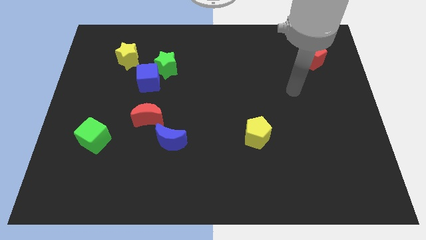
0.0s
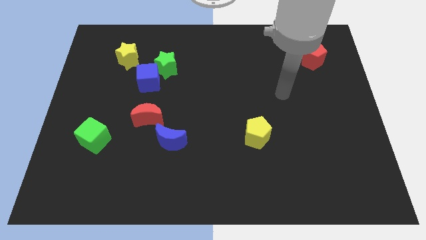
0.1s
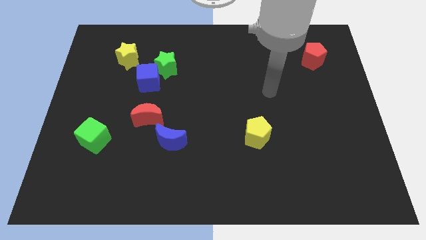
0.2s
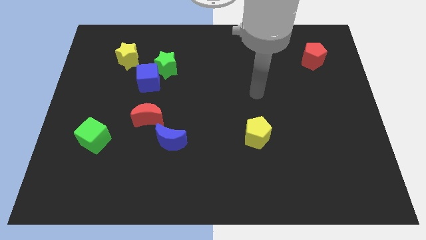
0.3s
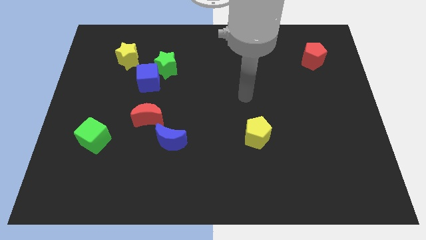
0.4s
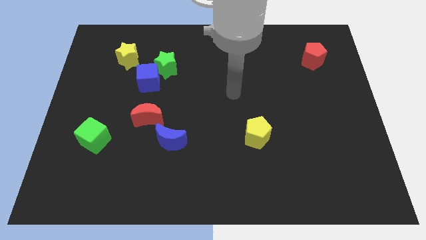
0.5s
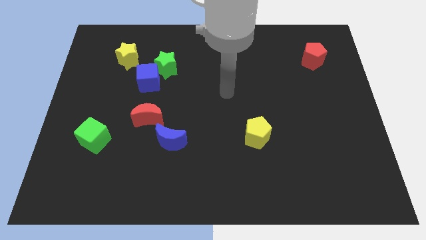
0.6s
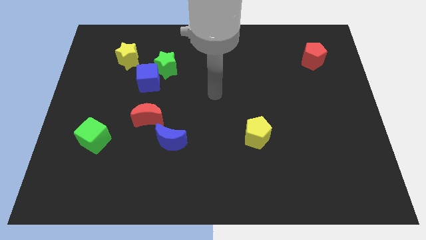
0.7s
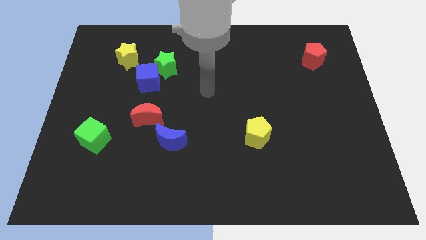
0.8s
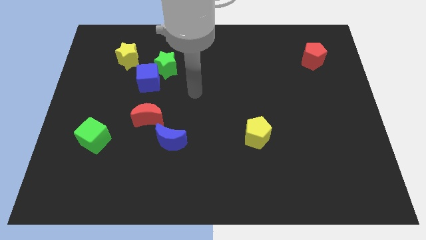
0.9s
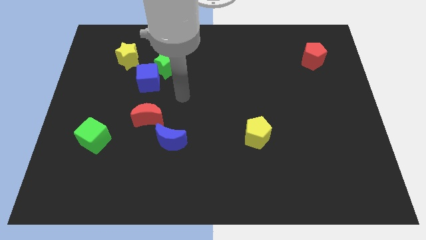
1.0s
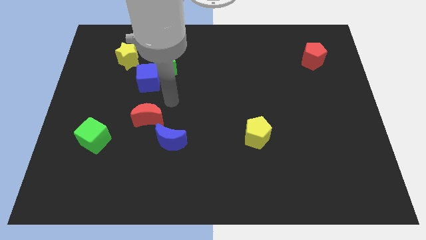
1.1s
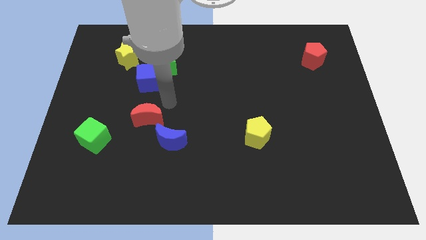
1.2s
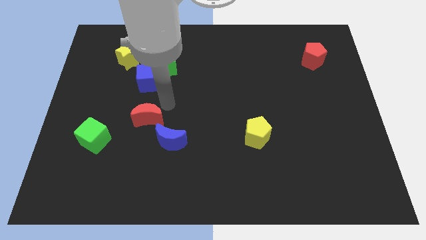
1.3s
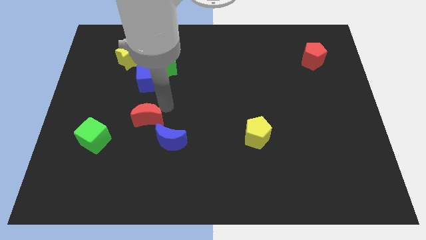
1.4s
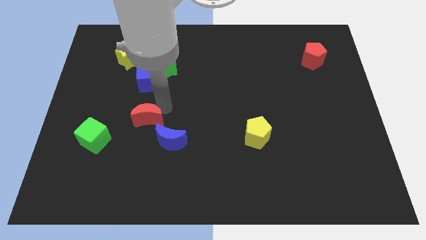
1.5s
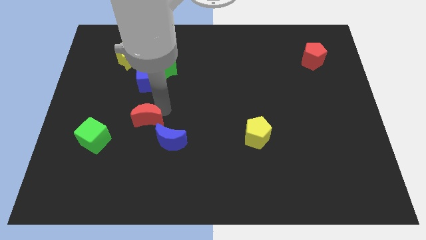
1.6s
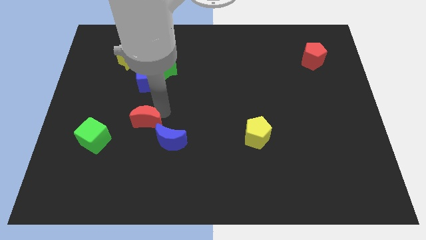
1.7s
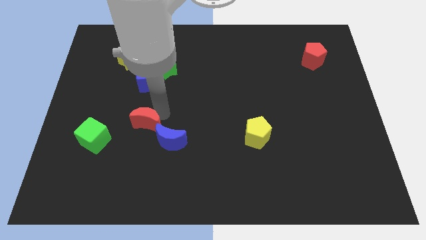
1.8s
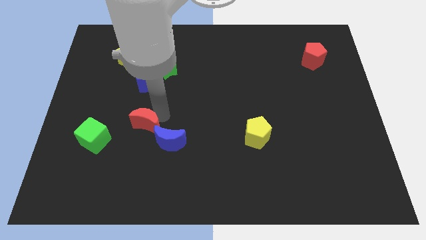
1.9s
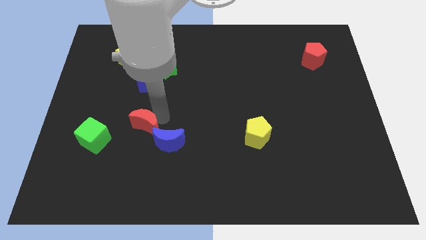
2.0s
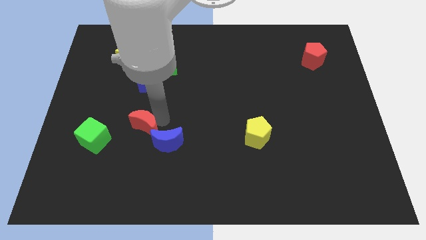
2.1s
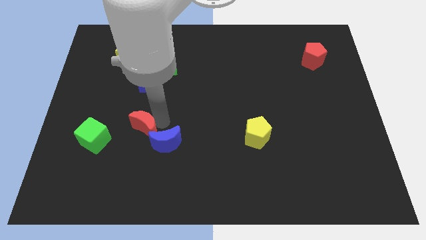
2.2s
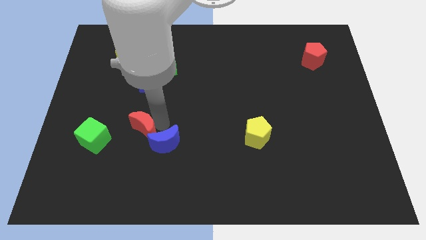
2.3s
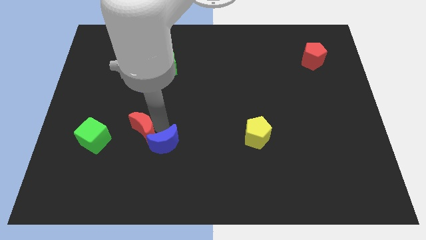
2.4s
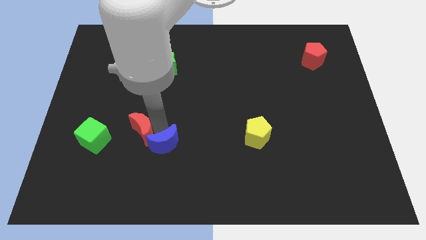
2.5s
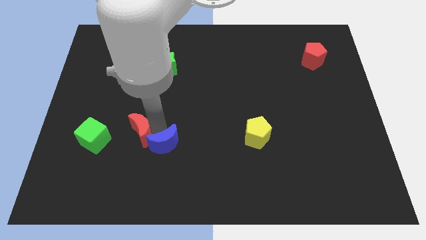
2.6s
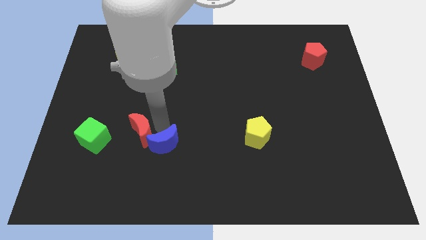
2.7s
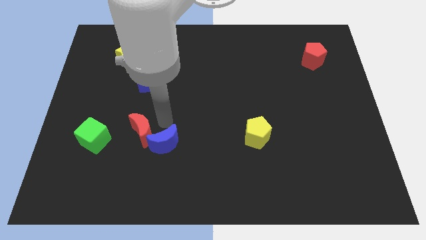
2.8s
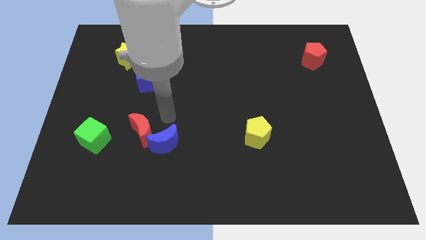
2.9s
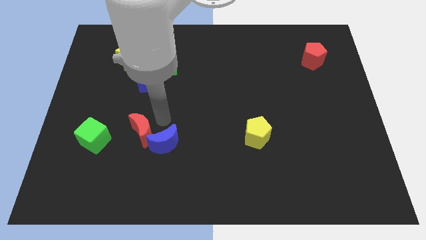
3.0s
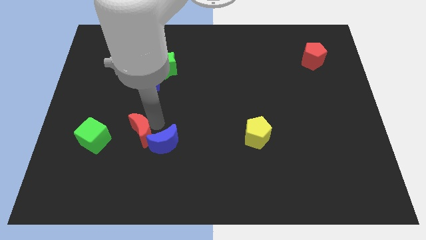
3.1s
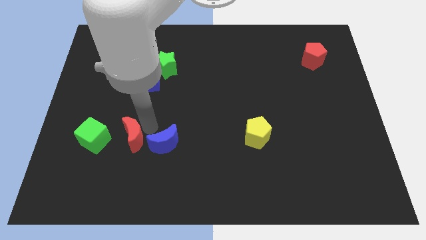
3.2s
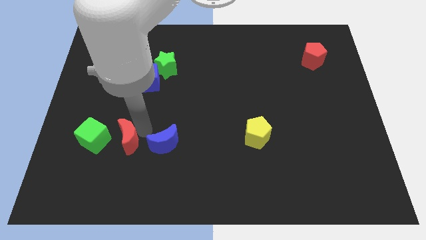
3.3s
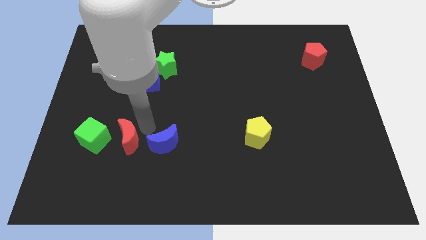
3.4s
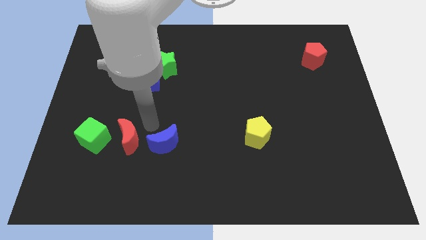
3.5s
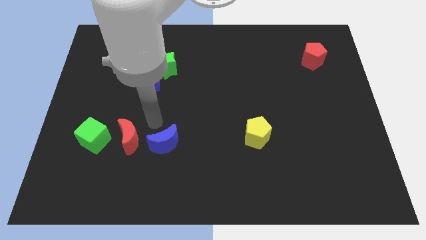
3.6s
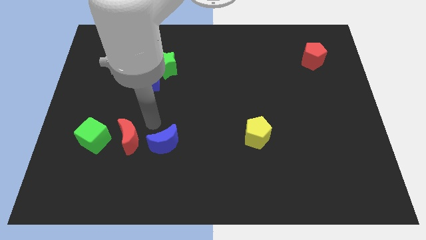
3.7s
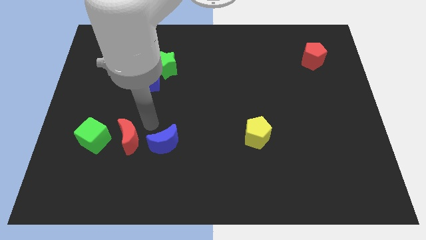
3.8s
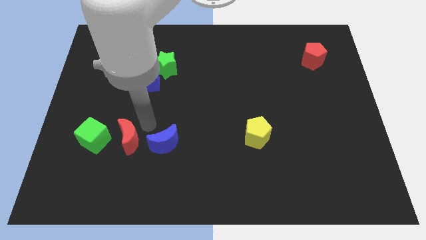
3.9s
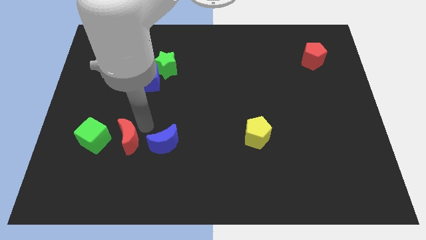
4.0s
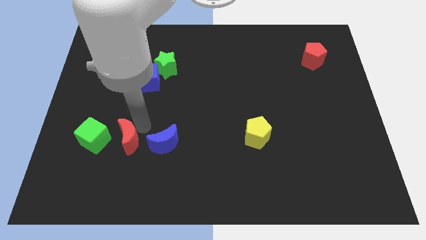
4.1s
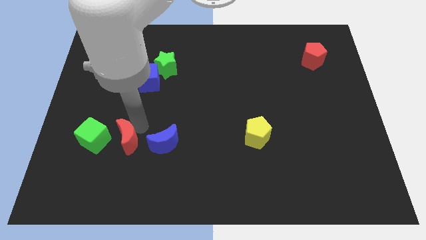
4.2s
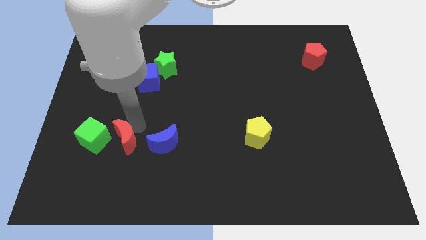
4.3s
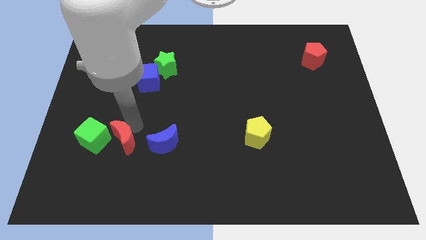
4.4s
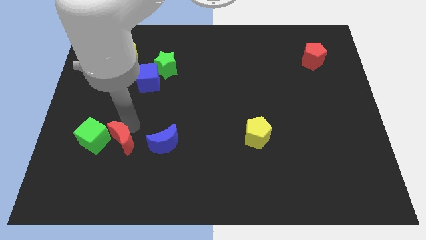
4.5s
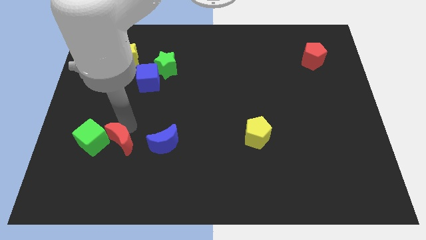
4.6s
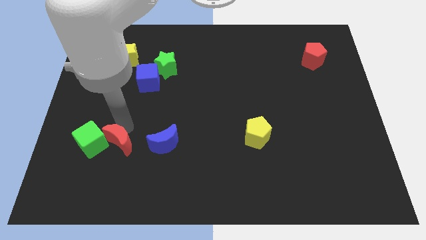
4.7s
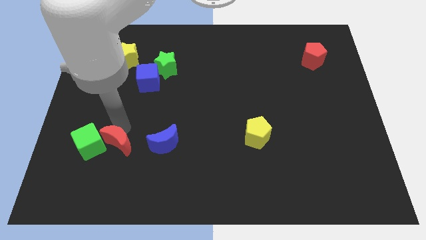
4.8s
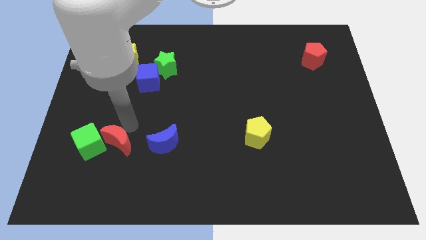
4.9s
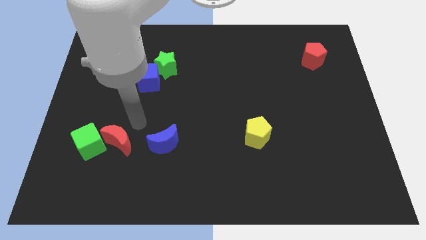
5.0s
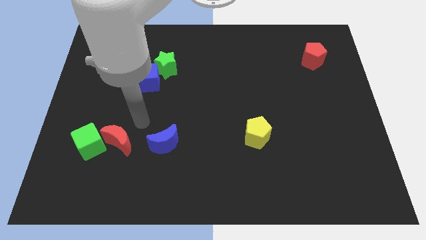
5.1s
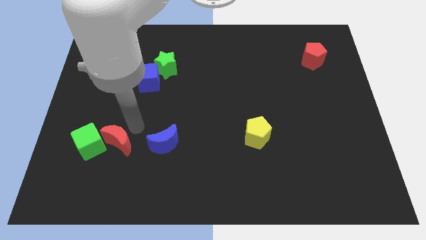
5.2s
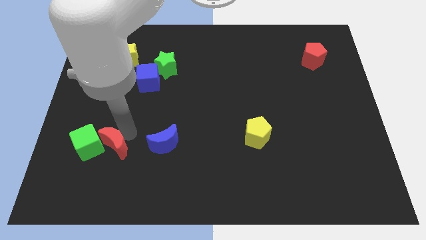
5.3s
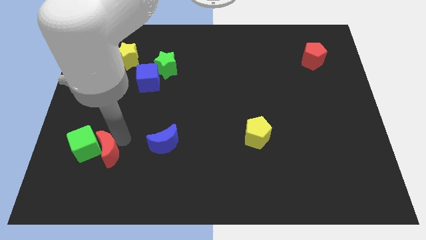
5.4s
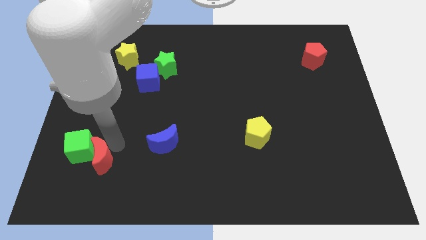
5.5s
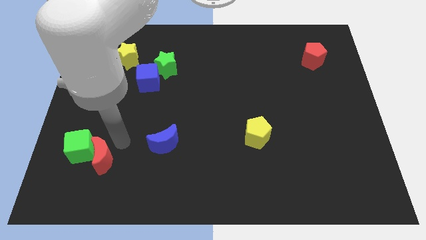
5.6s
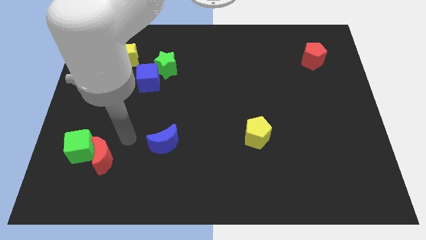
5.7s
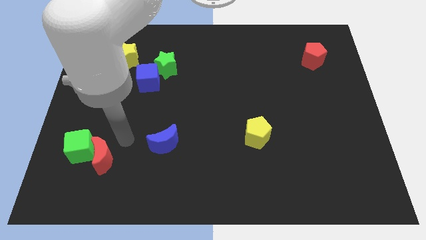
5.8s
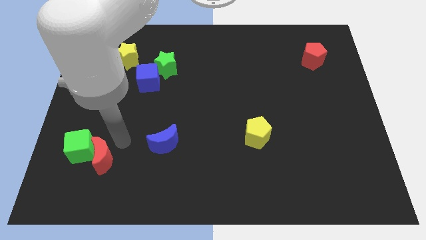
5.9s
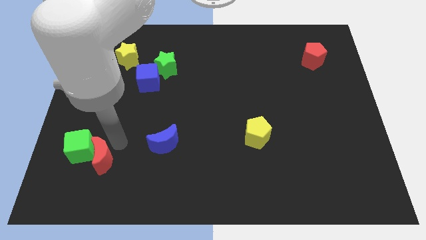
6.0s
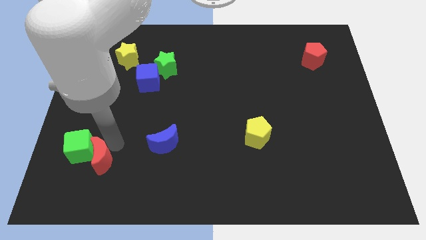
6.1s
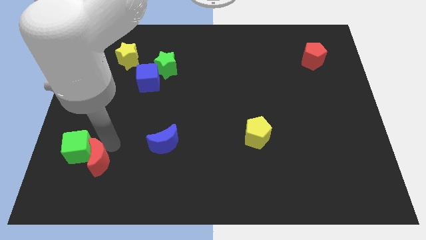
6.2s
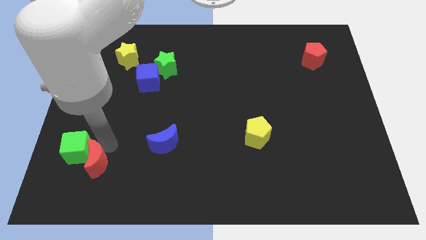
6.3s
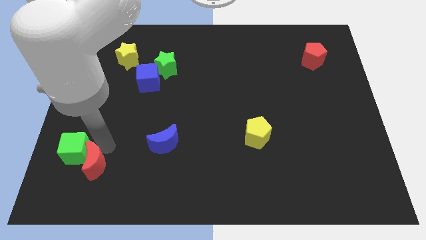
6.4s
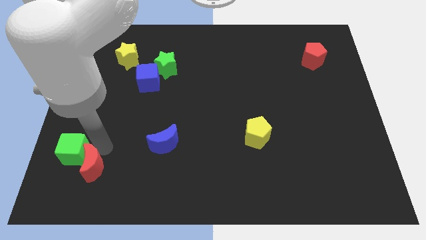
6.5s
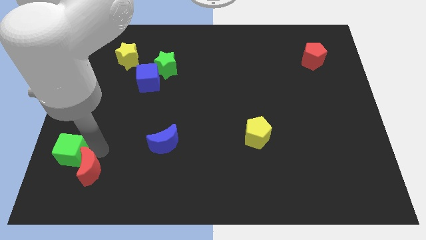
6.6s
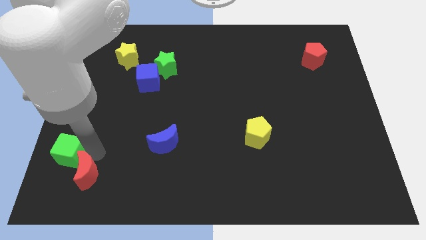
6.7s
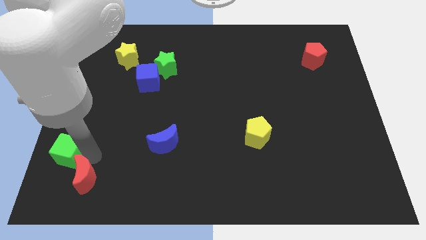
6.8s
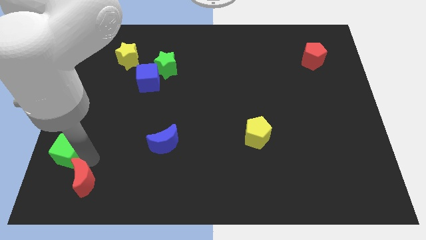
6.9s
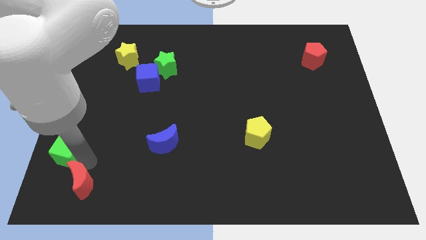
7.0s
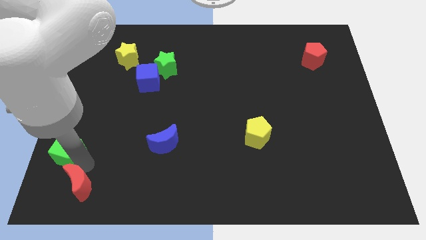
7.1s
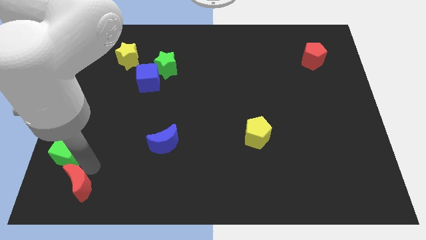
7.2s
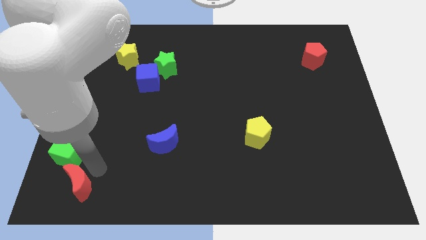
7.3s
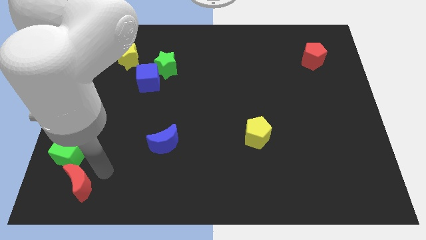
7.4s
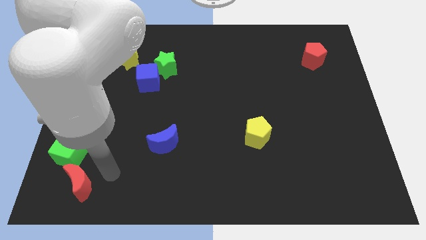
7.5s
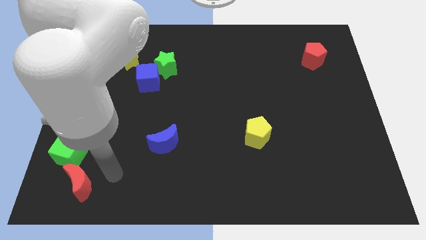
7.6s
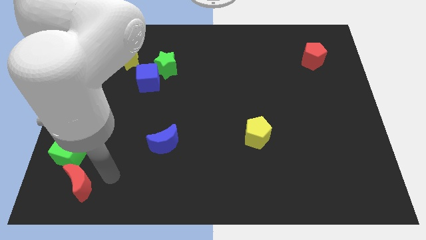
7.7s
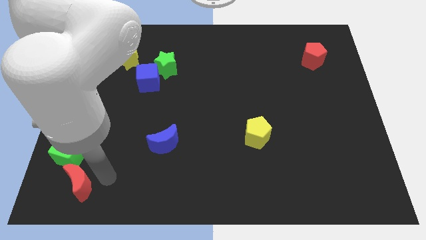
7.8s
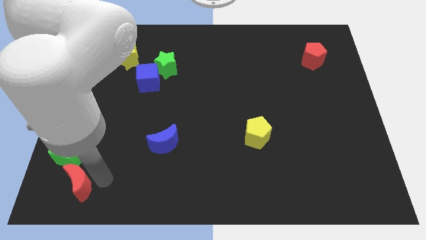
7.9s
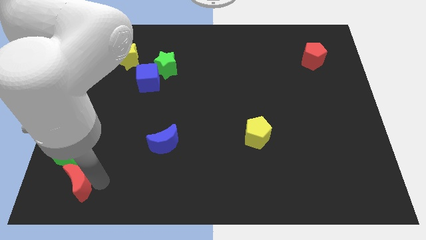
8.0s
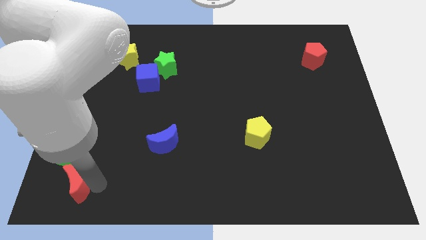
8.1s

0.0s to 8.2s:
slide the red moon to the lower left corner
